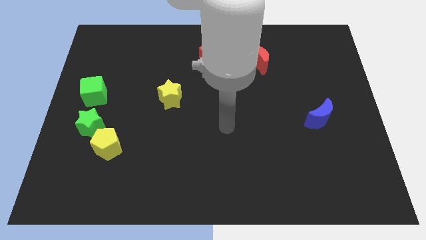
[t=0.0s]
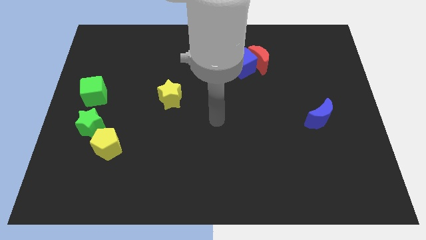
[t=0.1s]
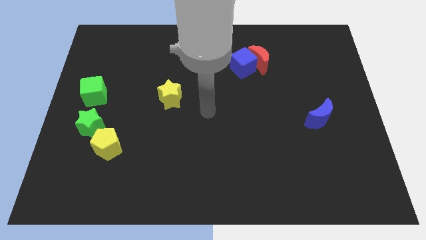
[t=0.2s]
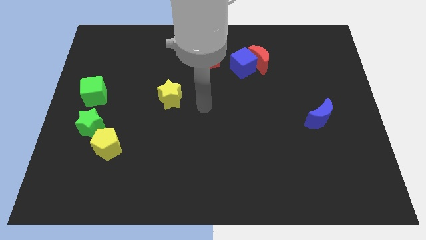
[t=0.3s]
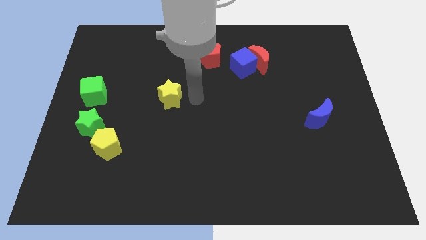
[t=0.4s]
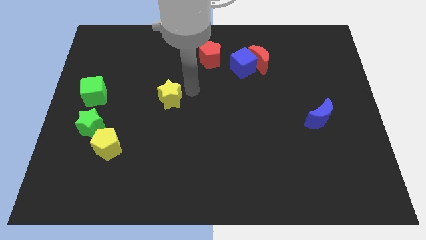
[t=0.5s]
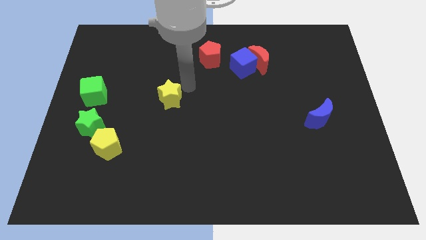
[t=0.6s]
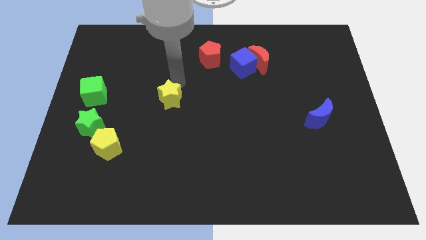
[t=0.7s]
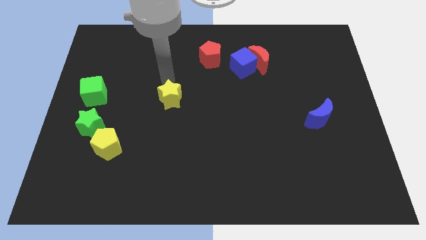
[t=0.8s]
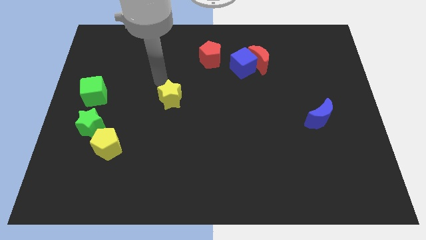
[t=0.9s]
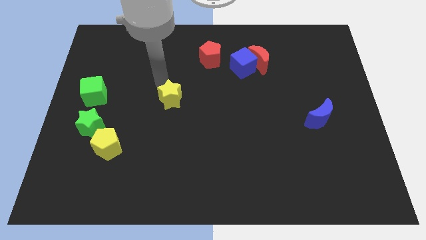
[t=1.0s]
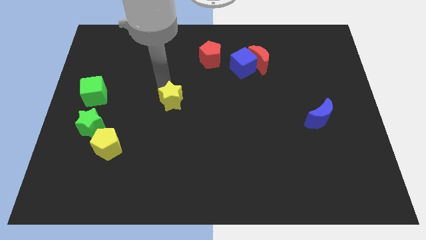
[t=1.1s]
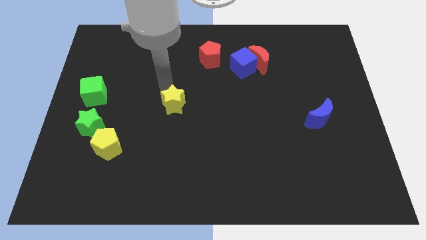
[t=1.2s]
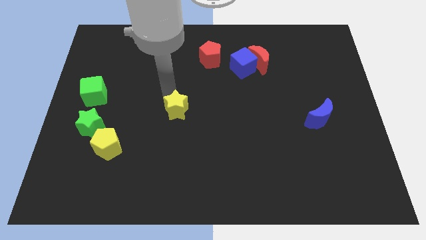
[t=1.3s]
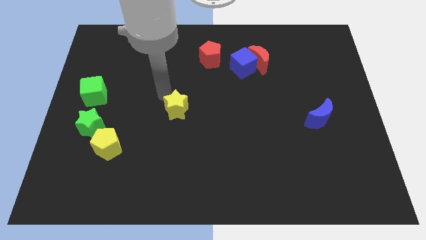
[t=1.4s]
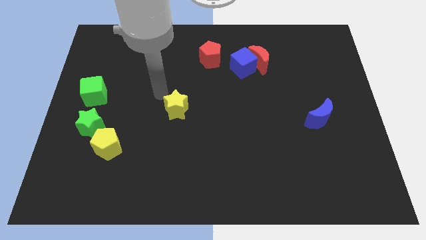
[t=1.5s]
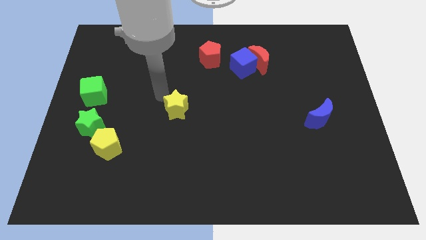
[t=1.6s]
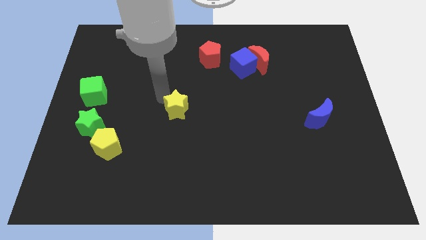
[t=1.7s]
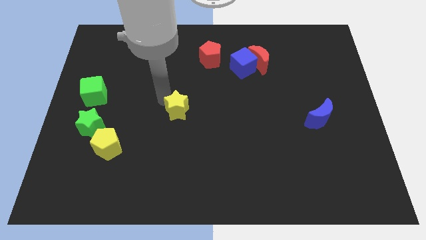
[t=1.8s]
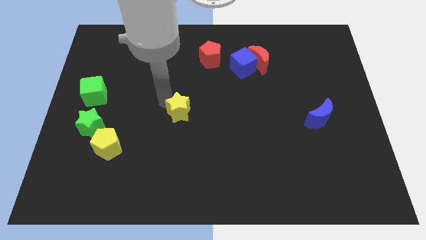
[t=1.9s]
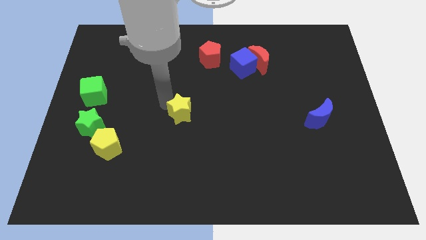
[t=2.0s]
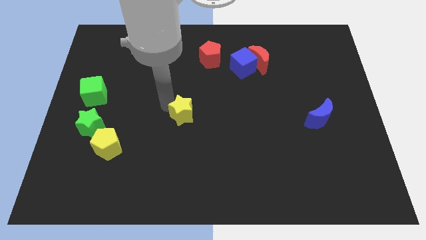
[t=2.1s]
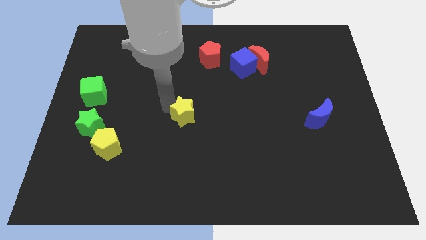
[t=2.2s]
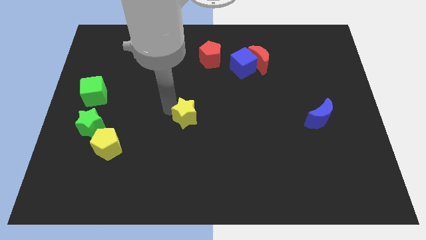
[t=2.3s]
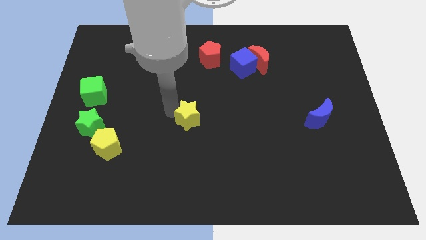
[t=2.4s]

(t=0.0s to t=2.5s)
slide the yellow star a bit down and then right

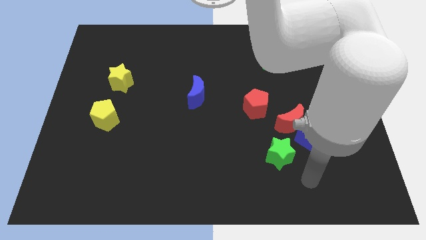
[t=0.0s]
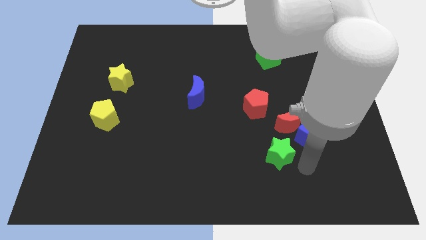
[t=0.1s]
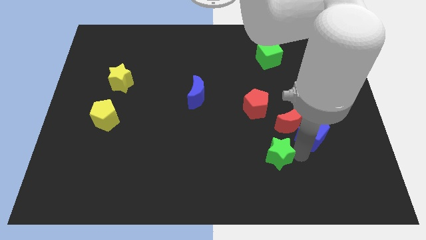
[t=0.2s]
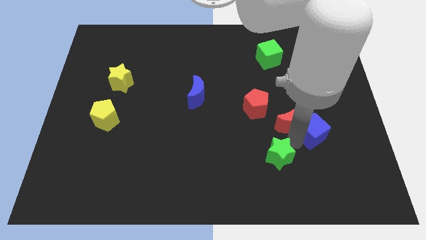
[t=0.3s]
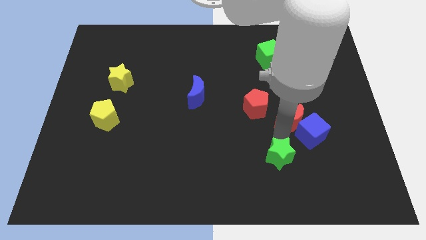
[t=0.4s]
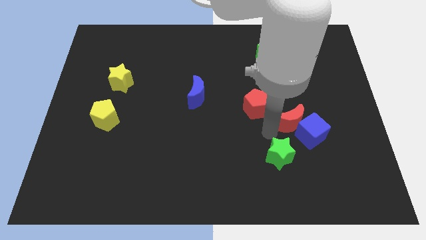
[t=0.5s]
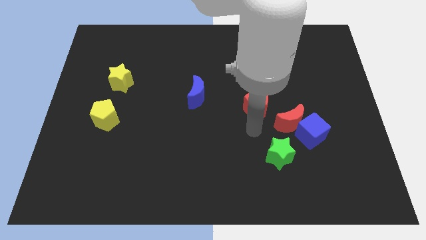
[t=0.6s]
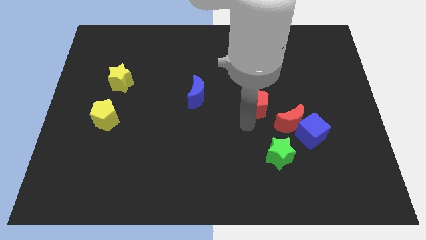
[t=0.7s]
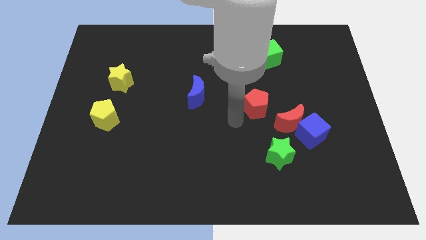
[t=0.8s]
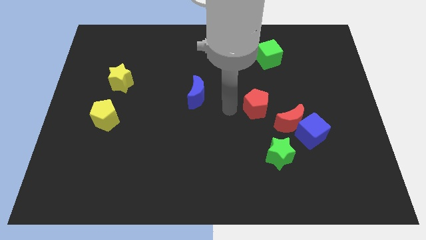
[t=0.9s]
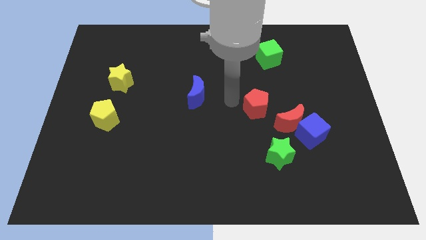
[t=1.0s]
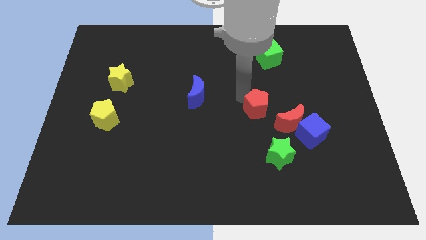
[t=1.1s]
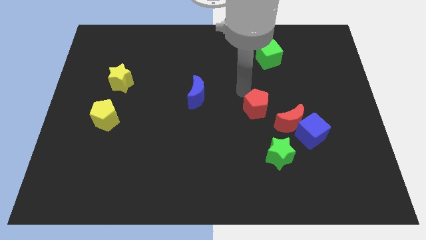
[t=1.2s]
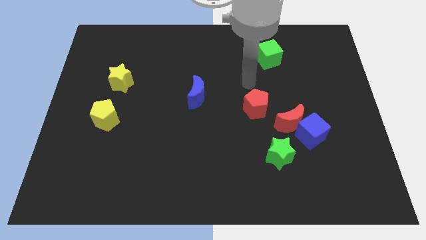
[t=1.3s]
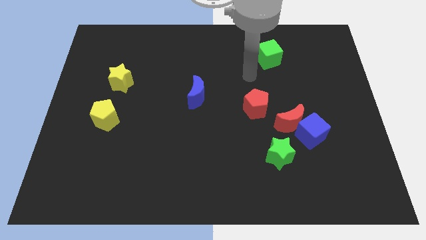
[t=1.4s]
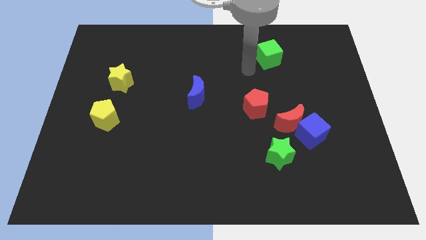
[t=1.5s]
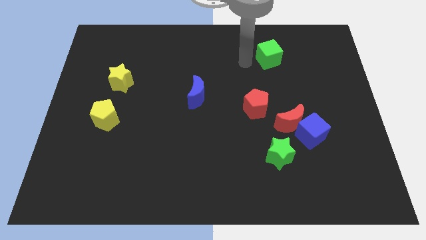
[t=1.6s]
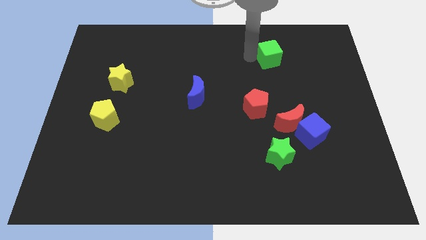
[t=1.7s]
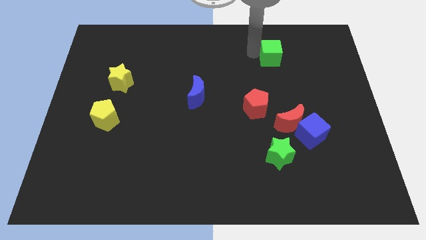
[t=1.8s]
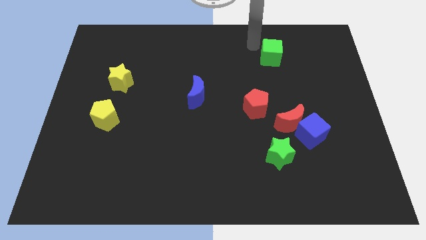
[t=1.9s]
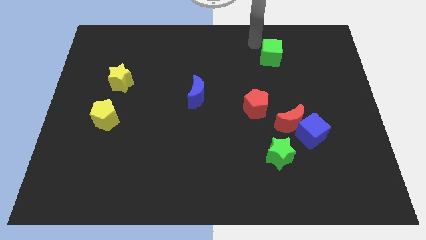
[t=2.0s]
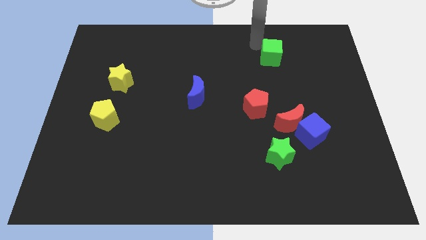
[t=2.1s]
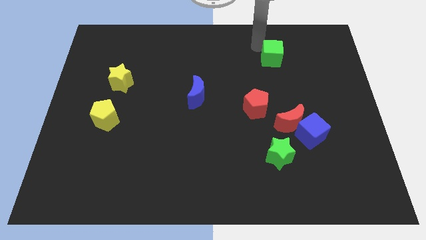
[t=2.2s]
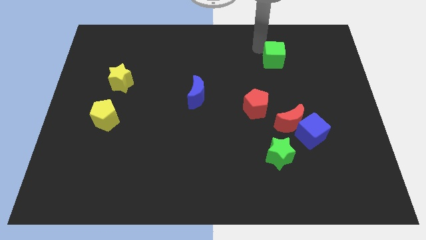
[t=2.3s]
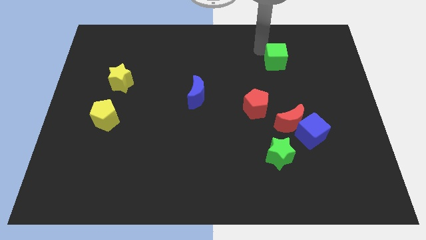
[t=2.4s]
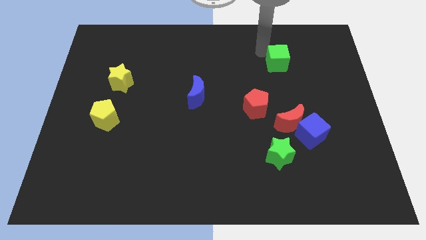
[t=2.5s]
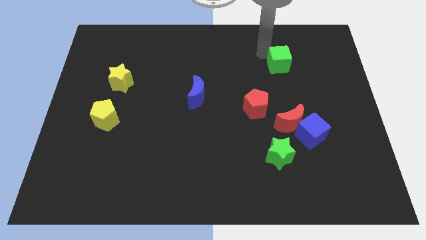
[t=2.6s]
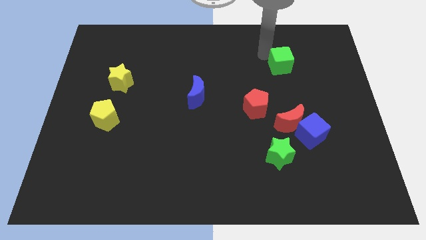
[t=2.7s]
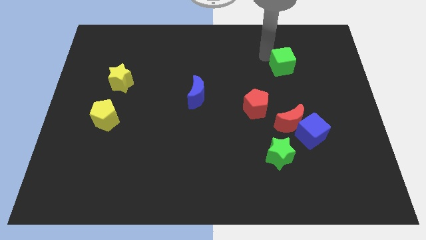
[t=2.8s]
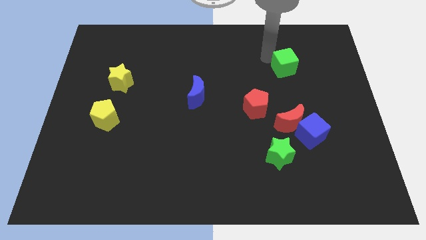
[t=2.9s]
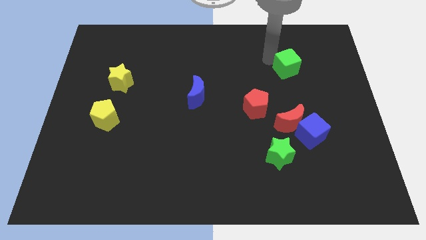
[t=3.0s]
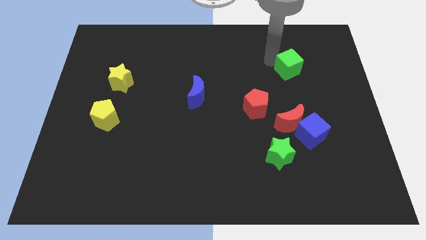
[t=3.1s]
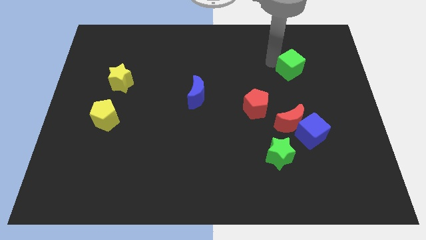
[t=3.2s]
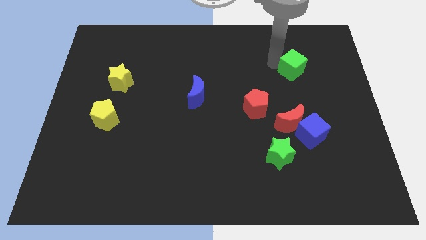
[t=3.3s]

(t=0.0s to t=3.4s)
slide the green cube downwards and then right a little

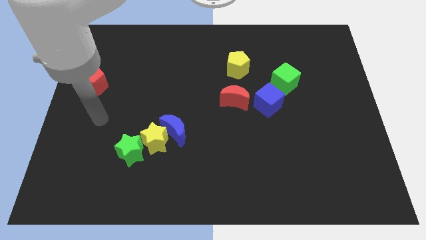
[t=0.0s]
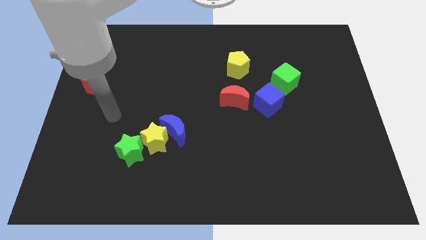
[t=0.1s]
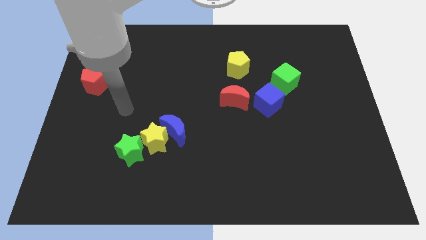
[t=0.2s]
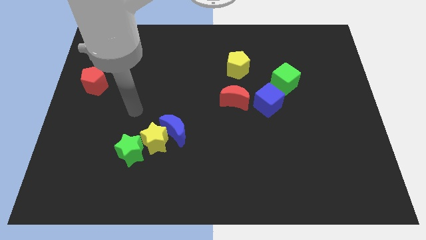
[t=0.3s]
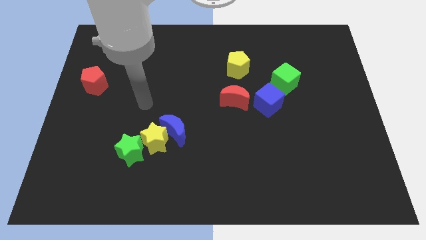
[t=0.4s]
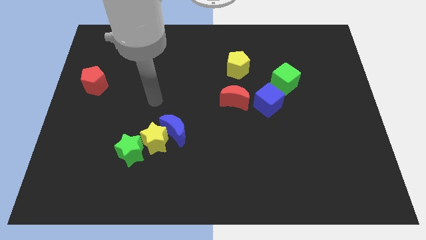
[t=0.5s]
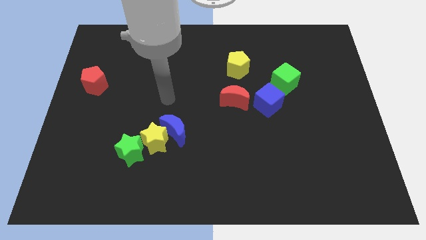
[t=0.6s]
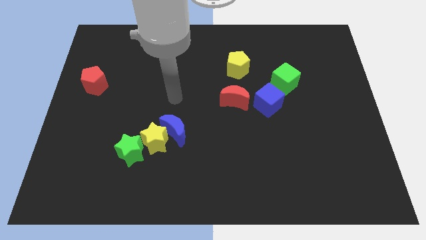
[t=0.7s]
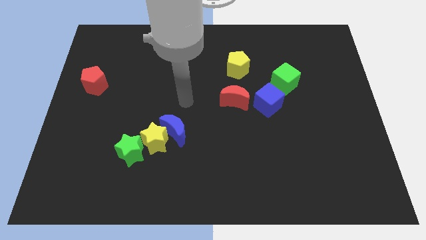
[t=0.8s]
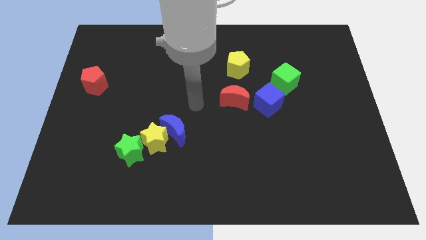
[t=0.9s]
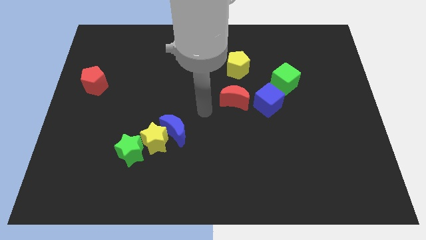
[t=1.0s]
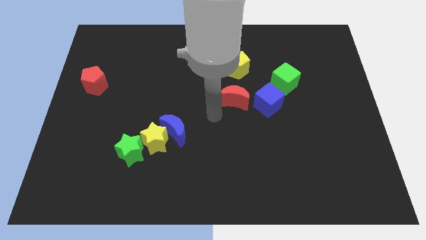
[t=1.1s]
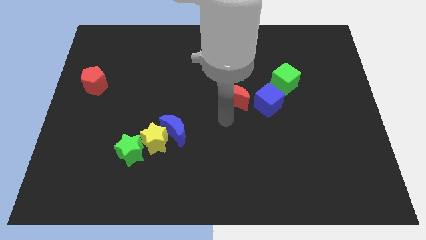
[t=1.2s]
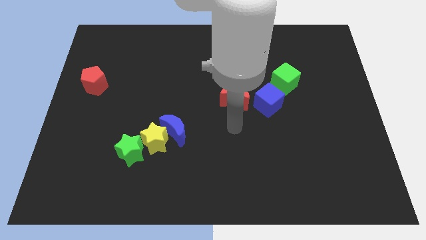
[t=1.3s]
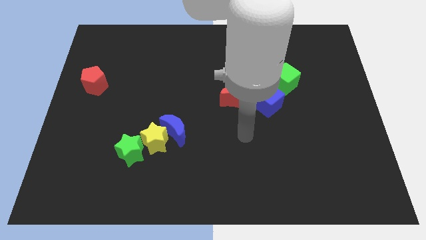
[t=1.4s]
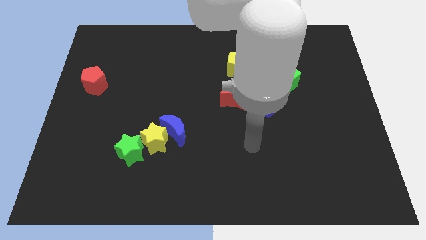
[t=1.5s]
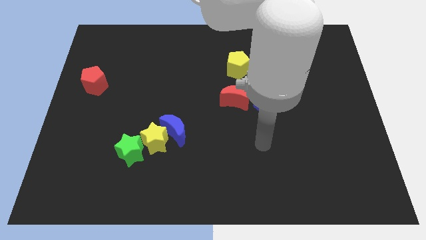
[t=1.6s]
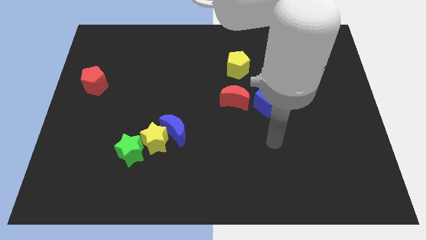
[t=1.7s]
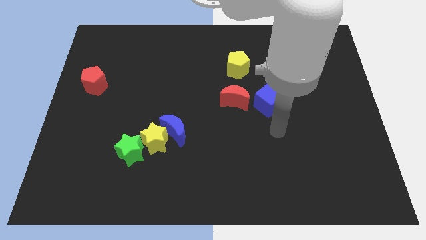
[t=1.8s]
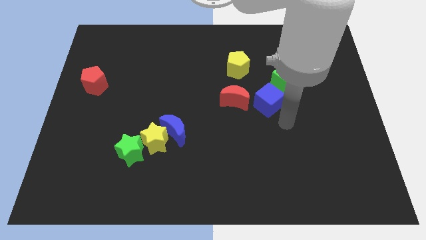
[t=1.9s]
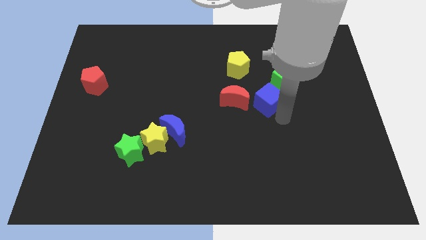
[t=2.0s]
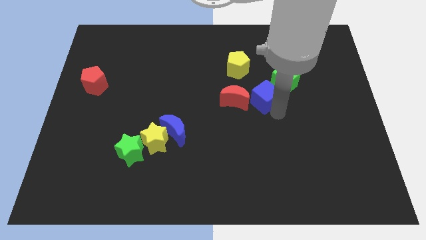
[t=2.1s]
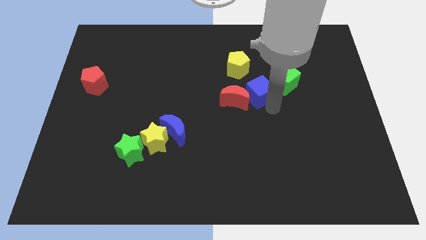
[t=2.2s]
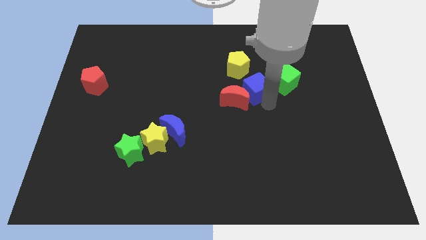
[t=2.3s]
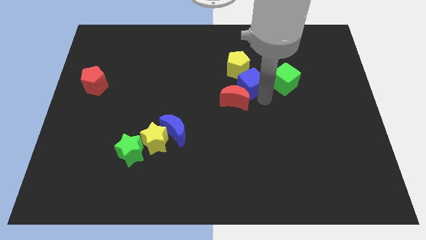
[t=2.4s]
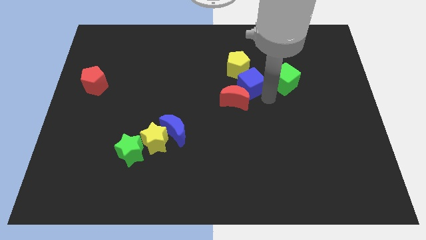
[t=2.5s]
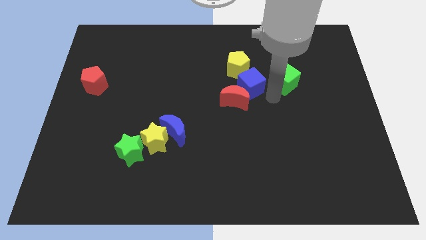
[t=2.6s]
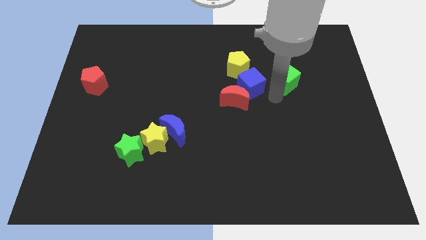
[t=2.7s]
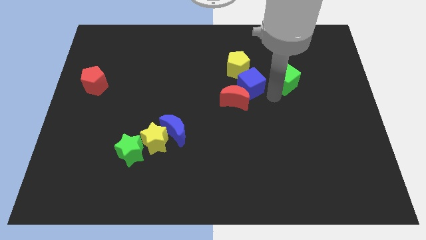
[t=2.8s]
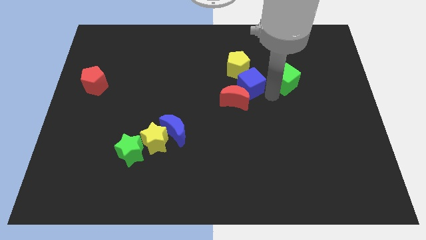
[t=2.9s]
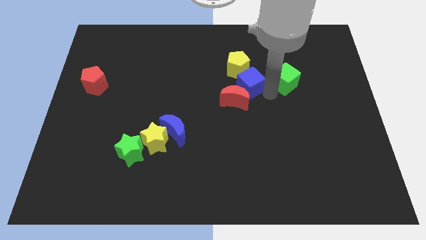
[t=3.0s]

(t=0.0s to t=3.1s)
push the blue cube somewhat up and then left
